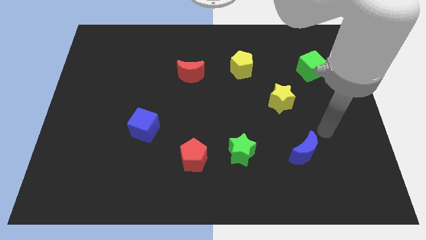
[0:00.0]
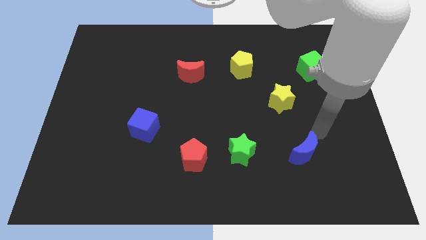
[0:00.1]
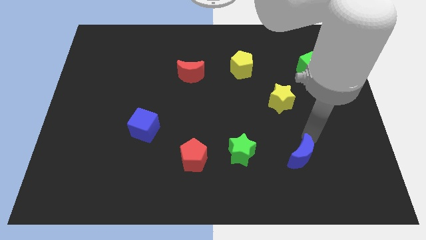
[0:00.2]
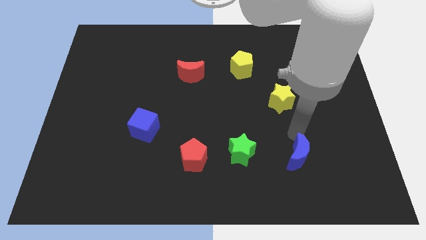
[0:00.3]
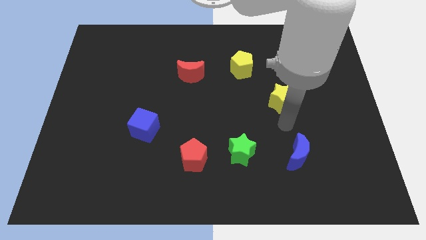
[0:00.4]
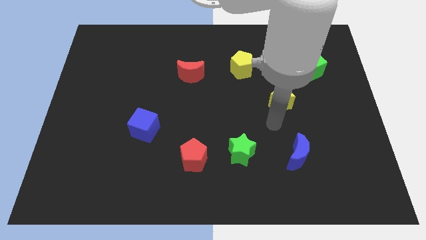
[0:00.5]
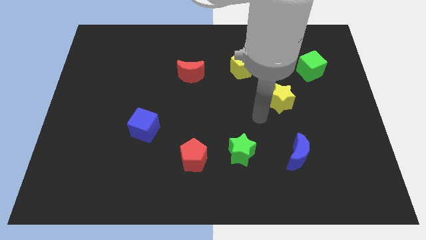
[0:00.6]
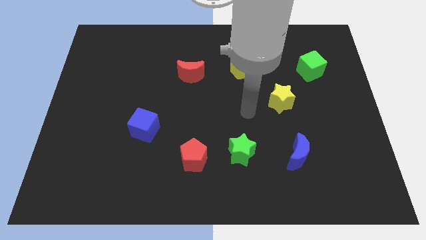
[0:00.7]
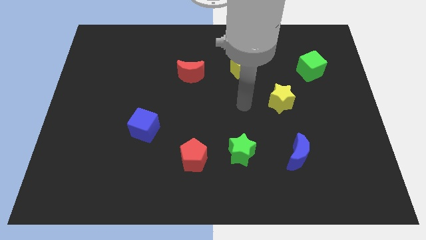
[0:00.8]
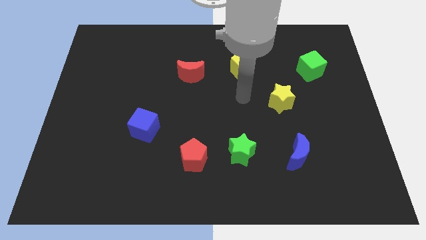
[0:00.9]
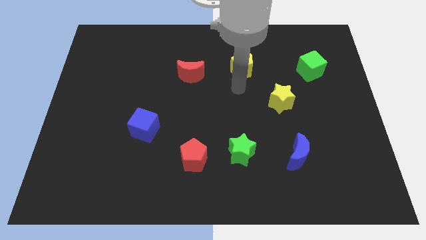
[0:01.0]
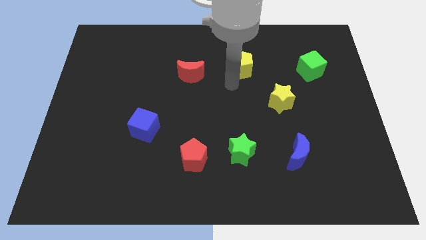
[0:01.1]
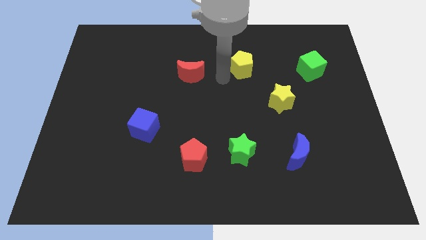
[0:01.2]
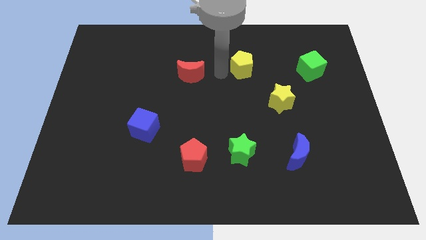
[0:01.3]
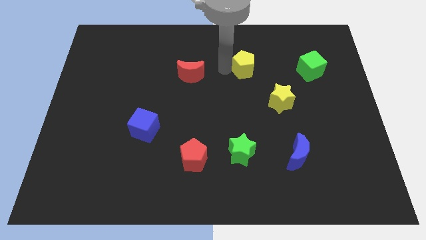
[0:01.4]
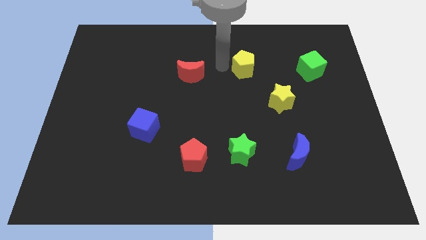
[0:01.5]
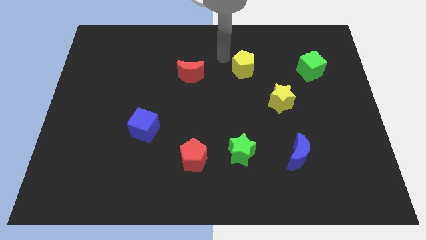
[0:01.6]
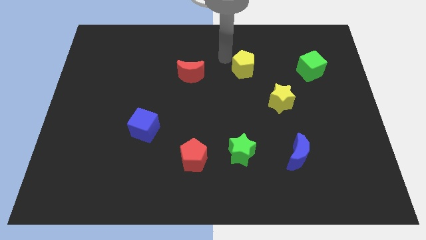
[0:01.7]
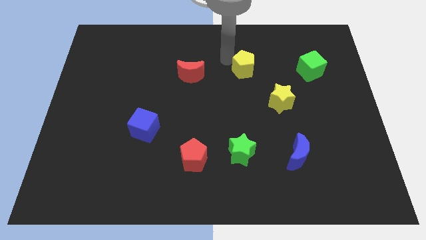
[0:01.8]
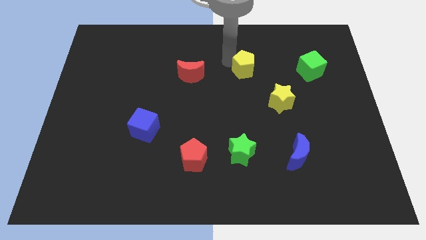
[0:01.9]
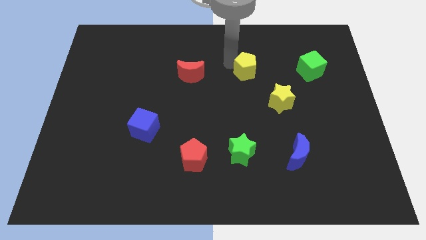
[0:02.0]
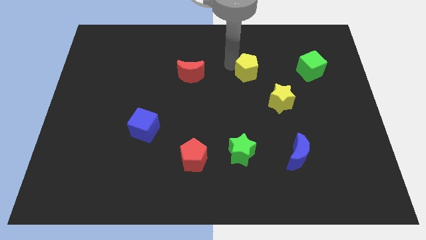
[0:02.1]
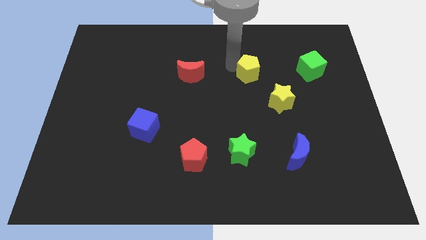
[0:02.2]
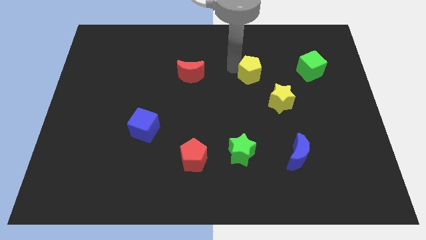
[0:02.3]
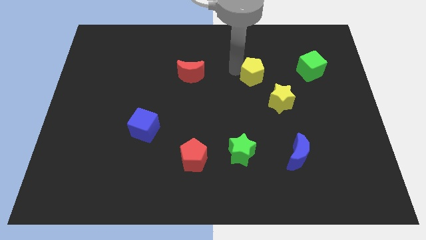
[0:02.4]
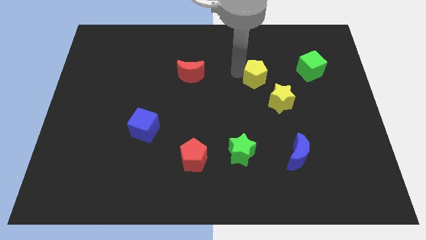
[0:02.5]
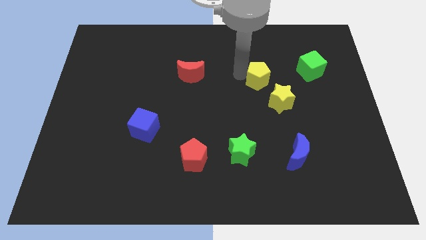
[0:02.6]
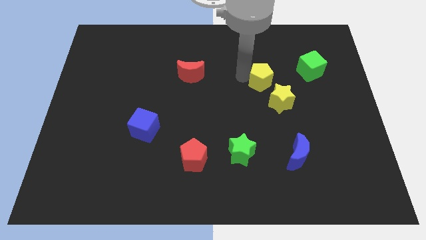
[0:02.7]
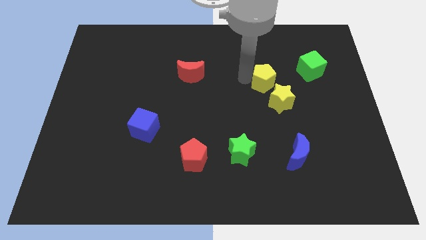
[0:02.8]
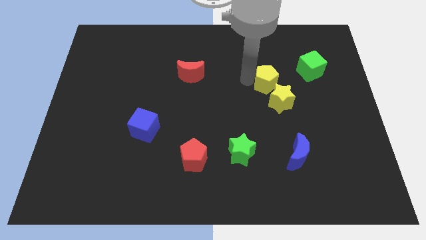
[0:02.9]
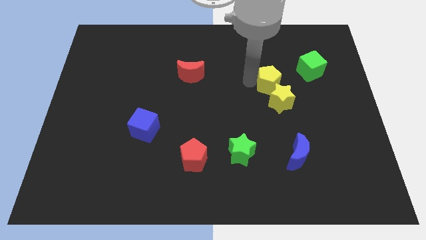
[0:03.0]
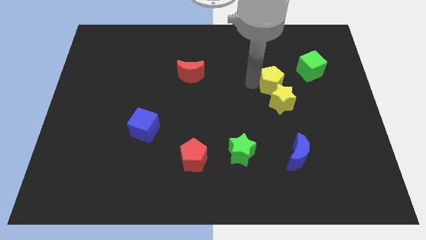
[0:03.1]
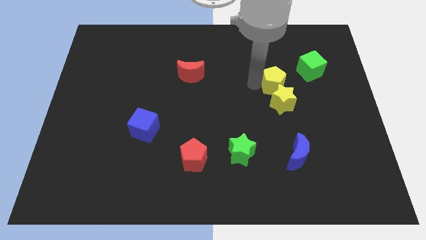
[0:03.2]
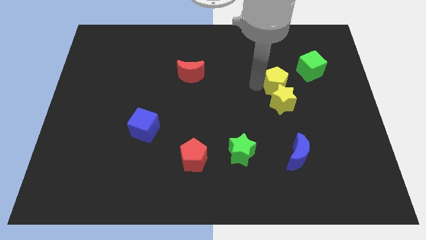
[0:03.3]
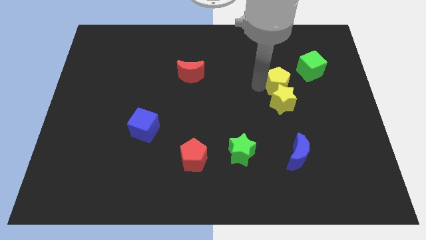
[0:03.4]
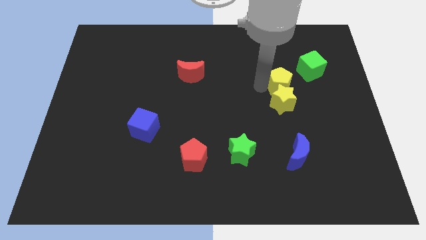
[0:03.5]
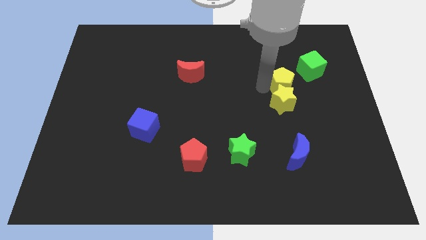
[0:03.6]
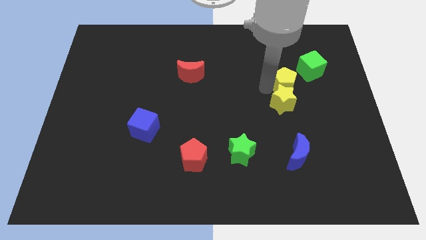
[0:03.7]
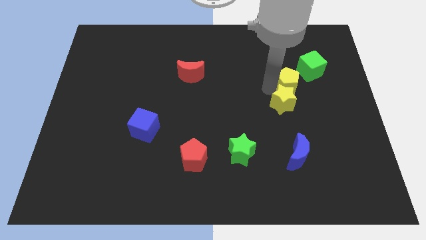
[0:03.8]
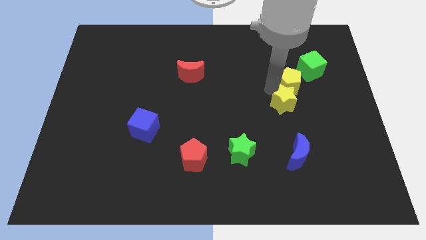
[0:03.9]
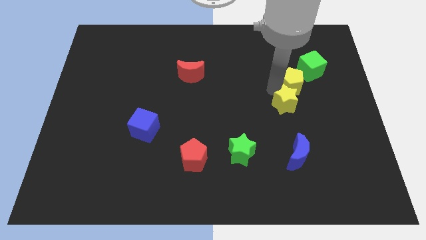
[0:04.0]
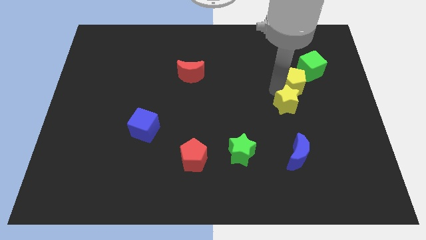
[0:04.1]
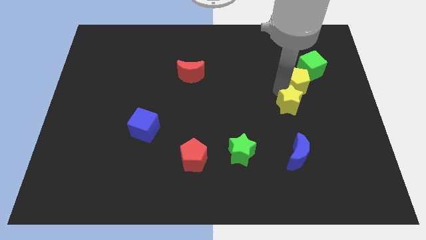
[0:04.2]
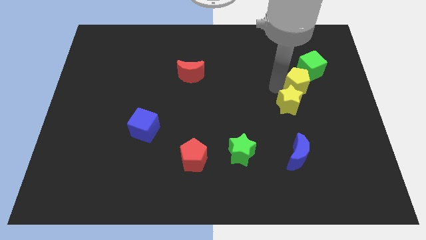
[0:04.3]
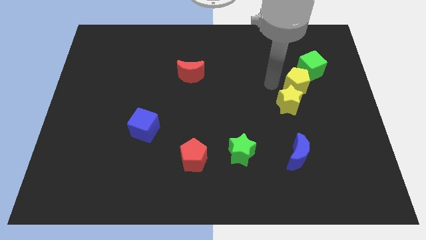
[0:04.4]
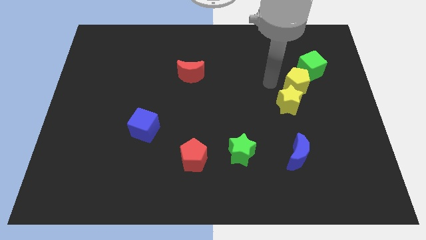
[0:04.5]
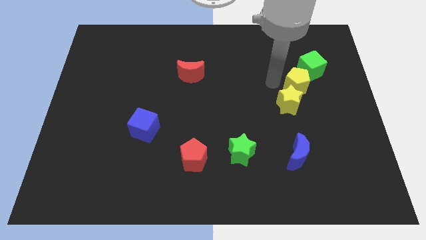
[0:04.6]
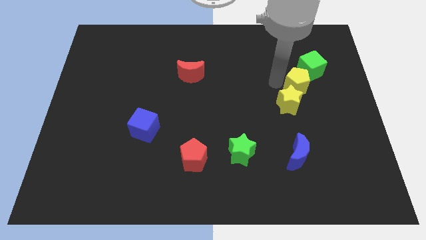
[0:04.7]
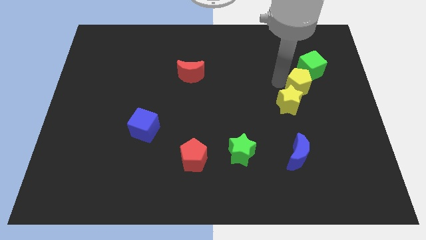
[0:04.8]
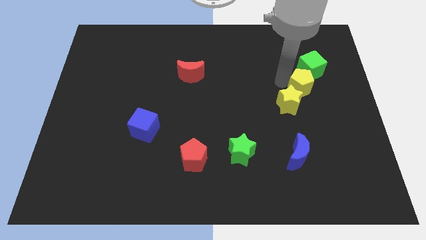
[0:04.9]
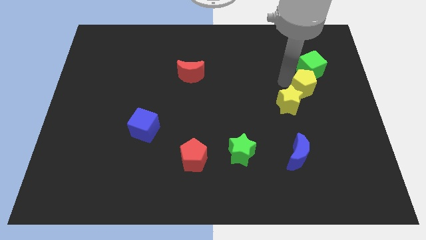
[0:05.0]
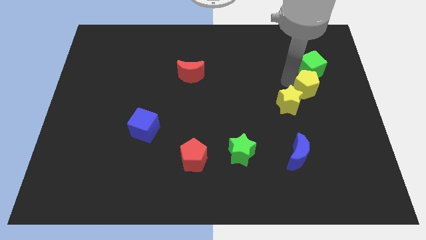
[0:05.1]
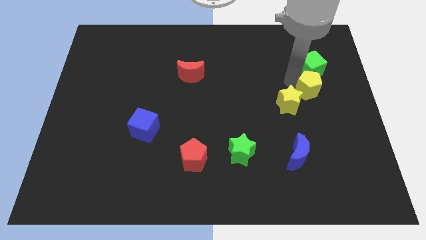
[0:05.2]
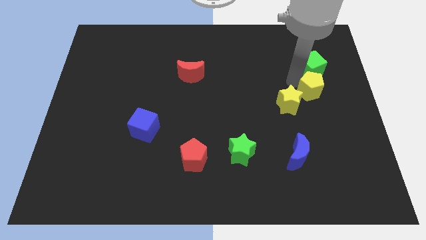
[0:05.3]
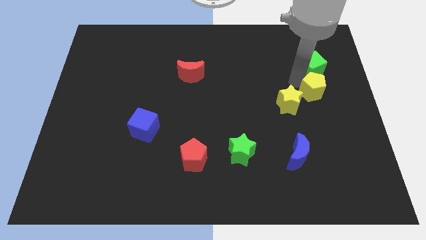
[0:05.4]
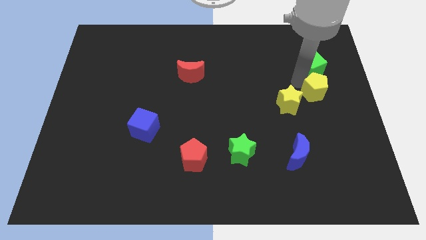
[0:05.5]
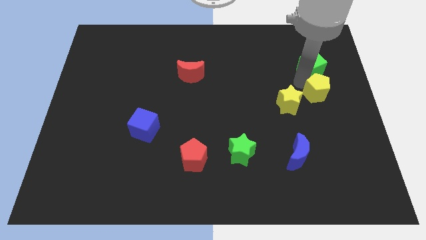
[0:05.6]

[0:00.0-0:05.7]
move the yellow pentagon to the right side of the board

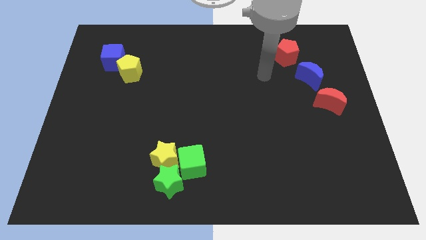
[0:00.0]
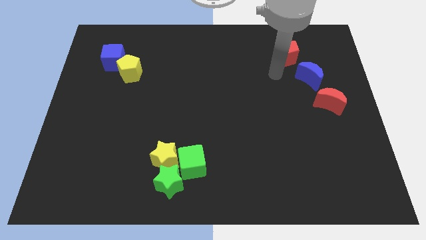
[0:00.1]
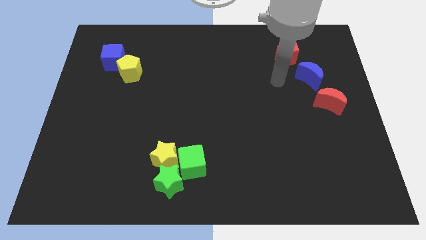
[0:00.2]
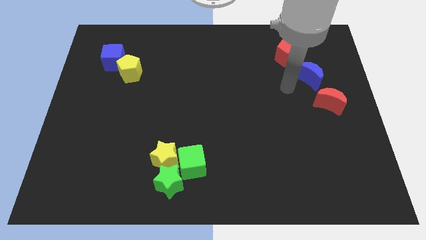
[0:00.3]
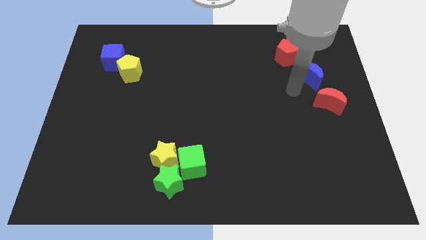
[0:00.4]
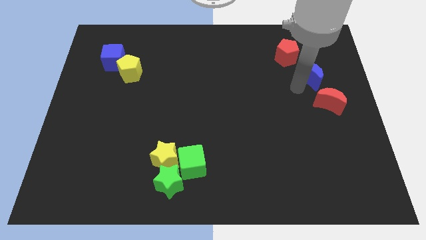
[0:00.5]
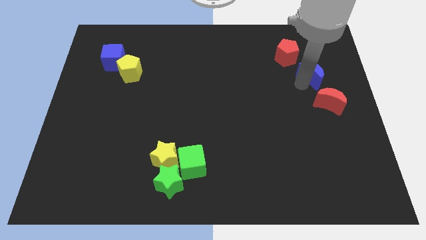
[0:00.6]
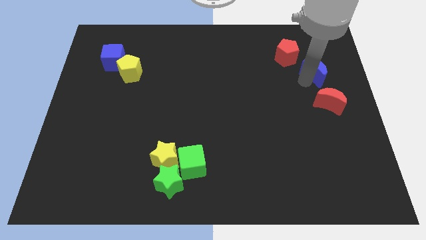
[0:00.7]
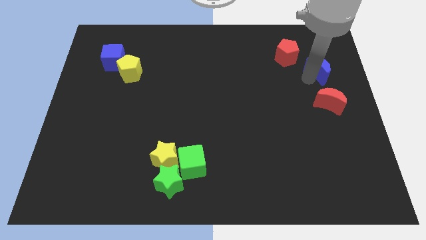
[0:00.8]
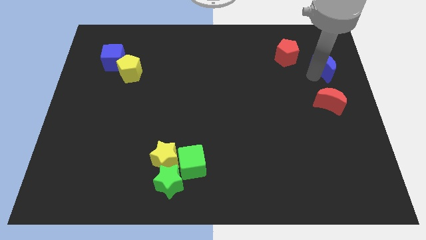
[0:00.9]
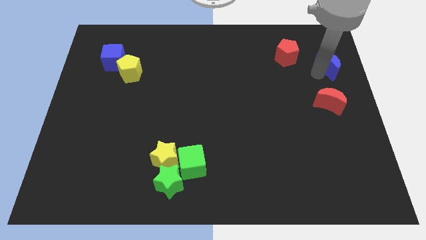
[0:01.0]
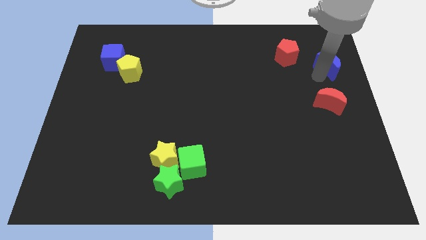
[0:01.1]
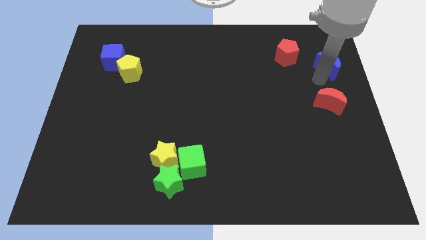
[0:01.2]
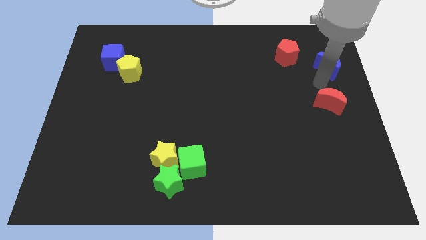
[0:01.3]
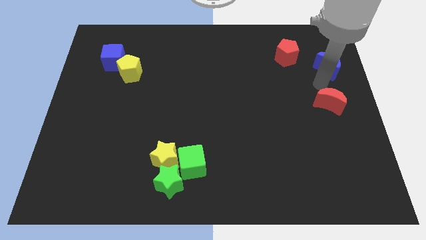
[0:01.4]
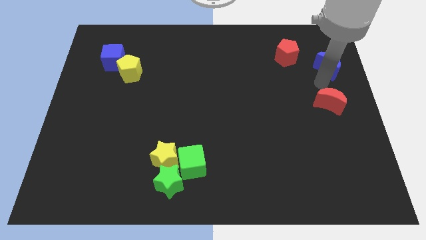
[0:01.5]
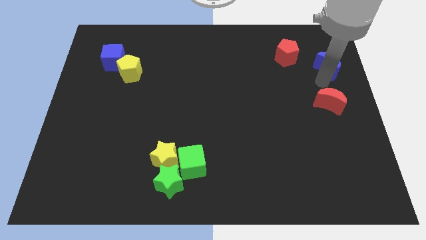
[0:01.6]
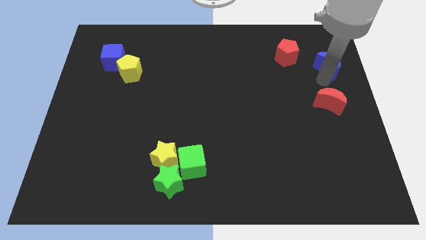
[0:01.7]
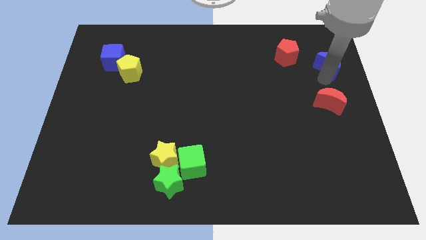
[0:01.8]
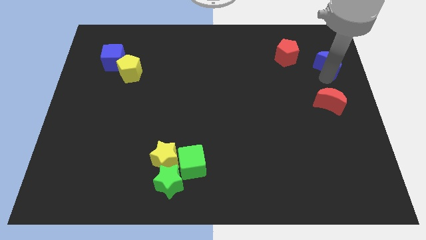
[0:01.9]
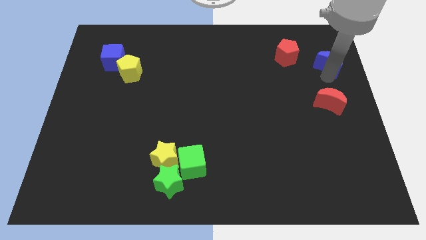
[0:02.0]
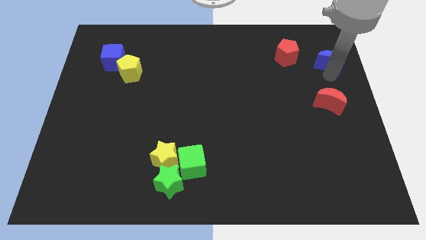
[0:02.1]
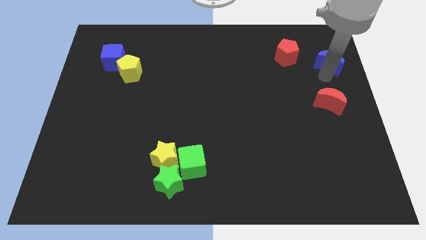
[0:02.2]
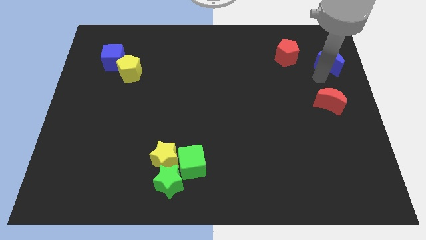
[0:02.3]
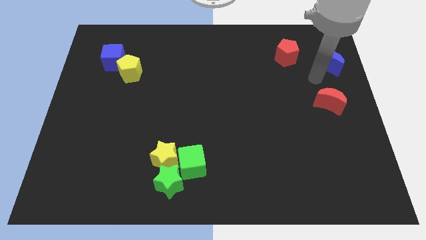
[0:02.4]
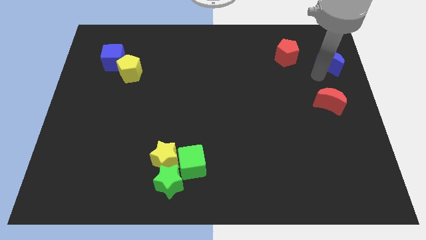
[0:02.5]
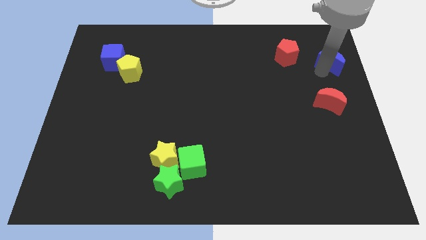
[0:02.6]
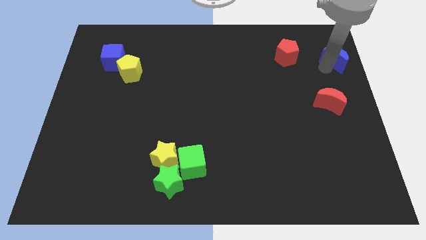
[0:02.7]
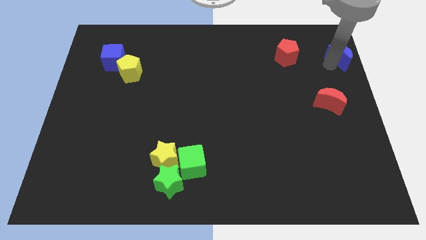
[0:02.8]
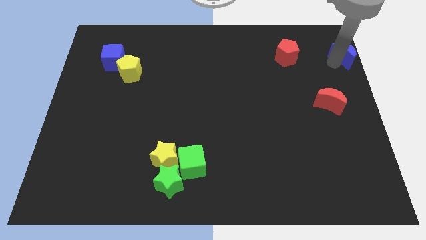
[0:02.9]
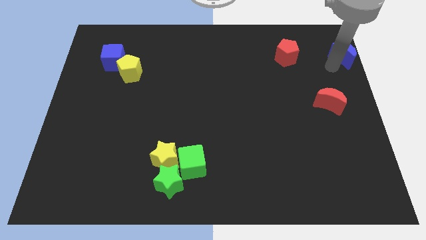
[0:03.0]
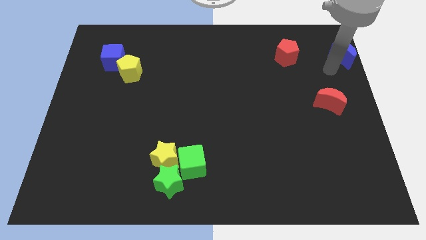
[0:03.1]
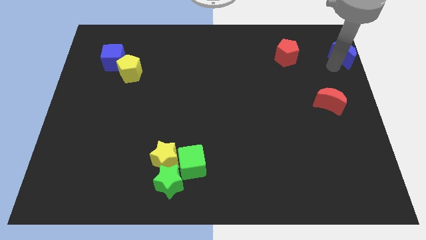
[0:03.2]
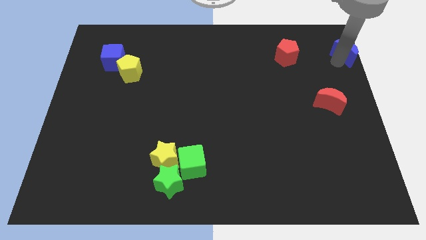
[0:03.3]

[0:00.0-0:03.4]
slide the blue moon to the top right corner
